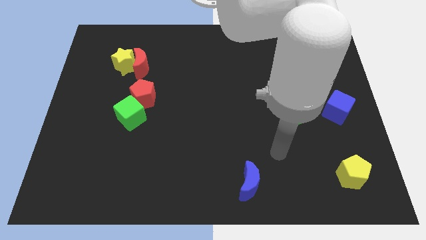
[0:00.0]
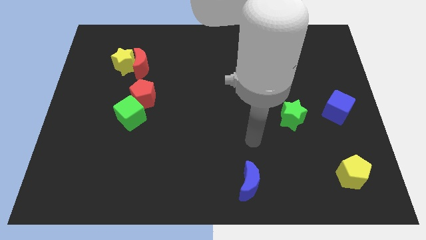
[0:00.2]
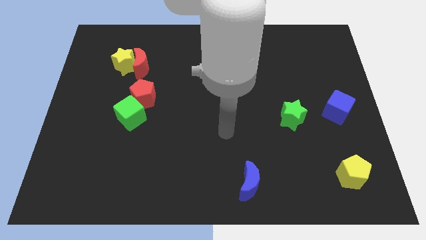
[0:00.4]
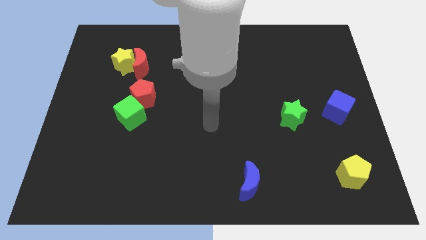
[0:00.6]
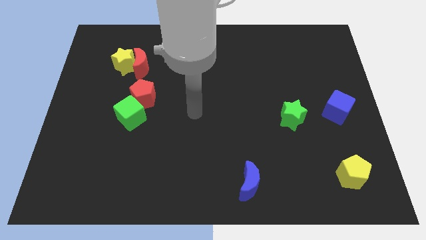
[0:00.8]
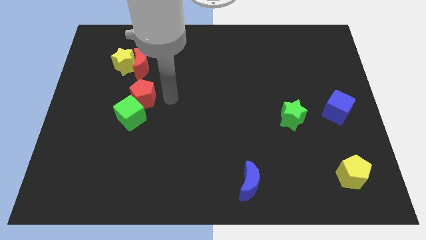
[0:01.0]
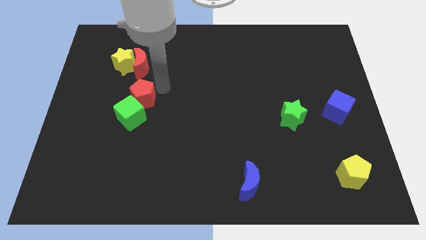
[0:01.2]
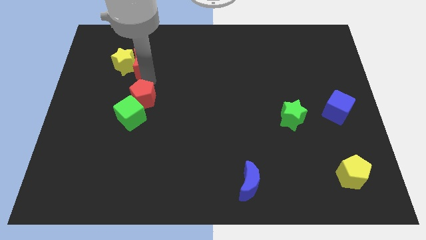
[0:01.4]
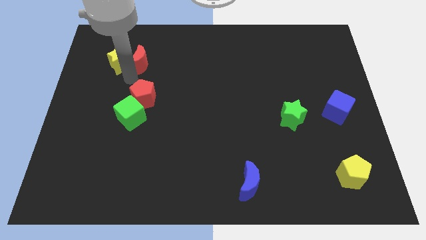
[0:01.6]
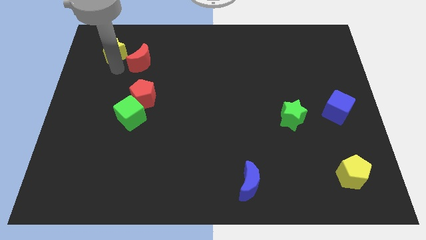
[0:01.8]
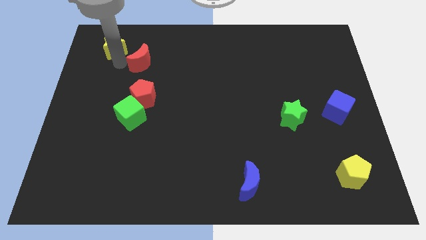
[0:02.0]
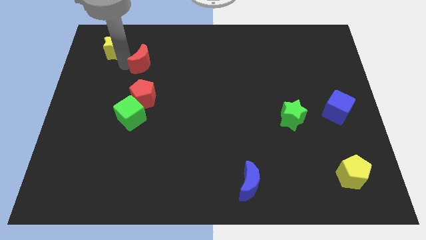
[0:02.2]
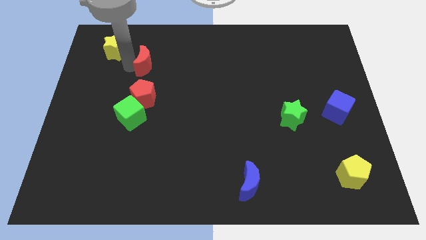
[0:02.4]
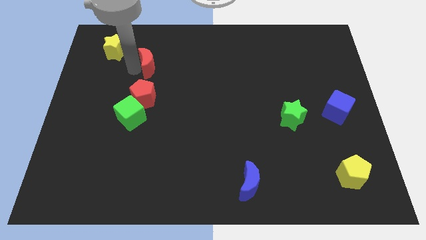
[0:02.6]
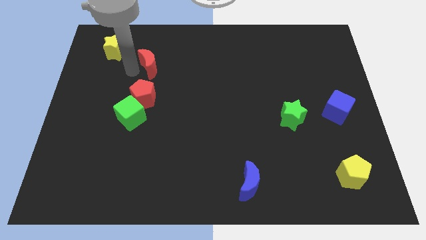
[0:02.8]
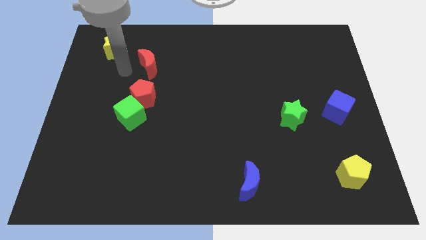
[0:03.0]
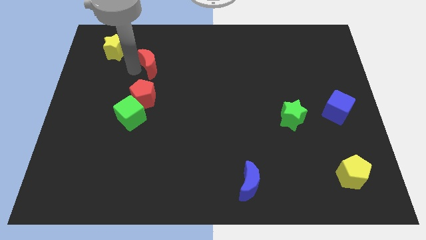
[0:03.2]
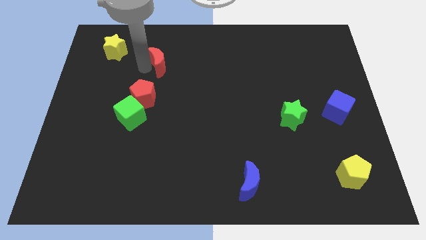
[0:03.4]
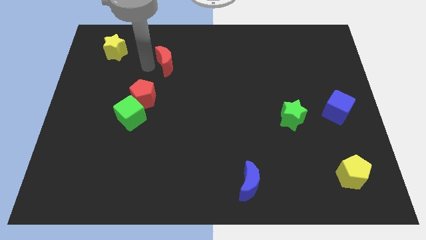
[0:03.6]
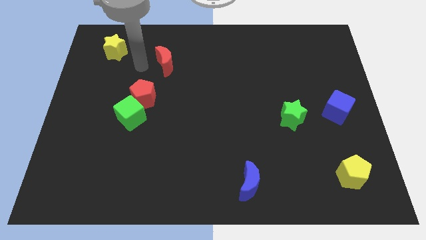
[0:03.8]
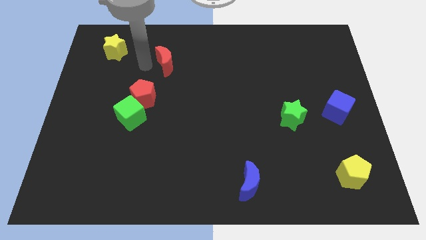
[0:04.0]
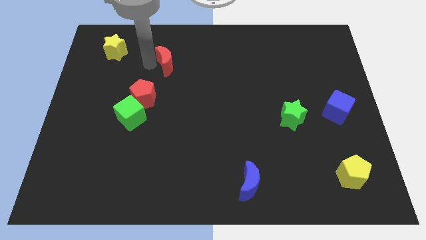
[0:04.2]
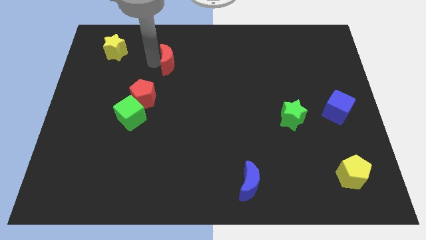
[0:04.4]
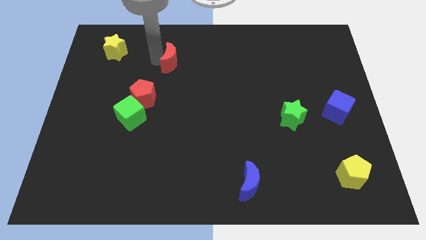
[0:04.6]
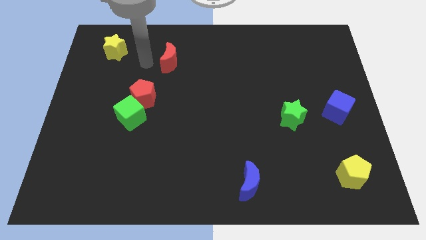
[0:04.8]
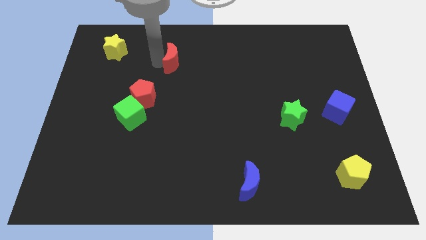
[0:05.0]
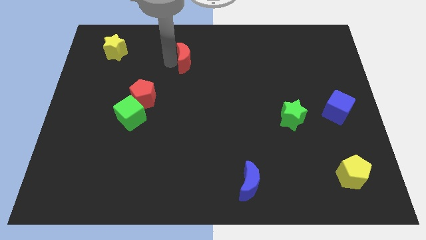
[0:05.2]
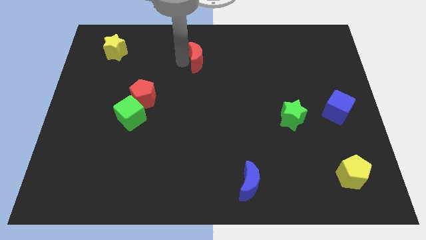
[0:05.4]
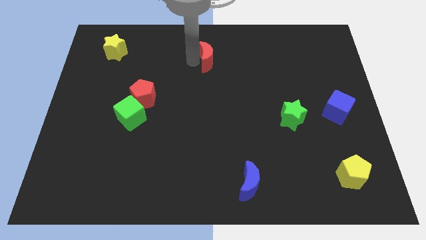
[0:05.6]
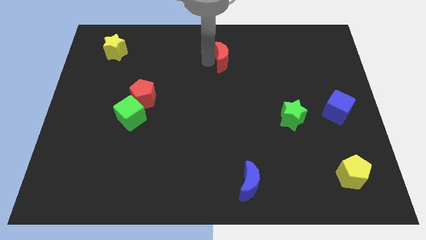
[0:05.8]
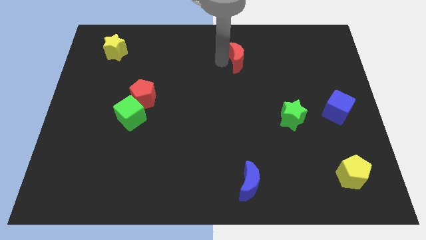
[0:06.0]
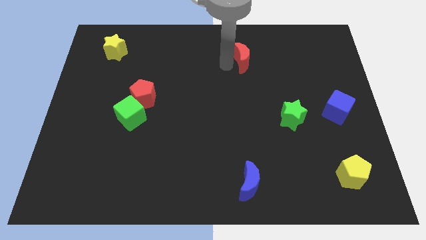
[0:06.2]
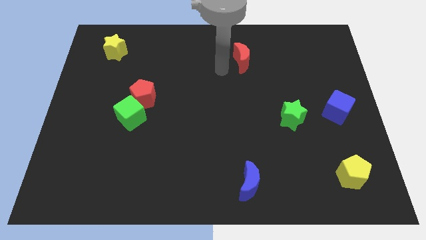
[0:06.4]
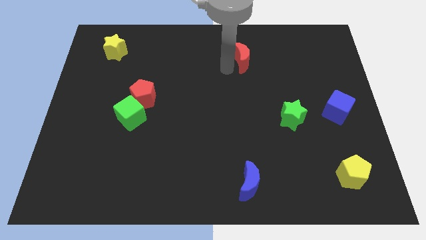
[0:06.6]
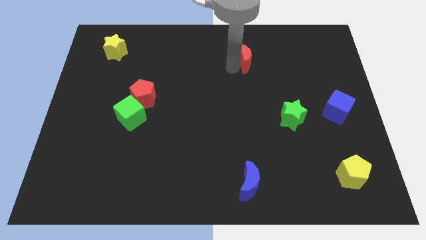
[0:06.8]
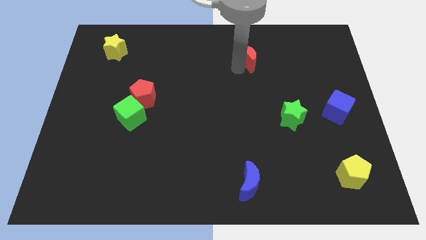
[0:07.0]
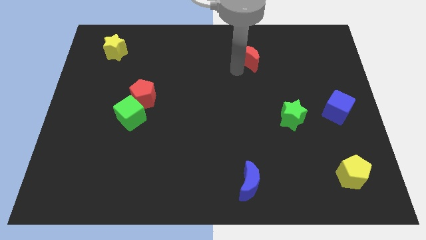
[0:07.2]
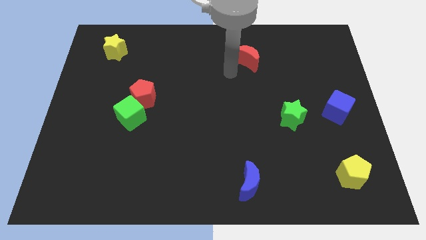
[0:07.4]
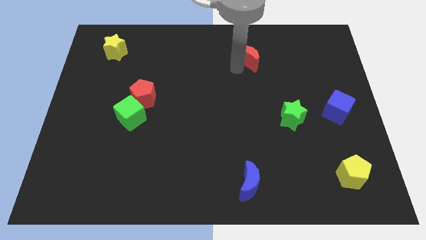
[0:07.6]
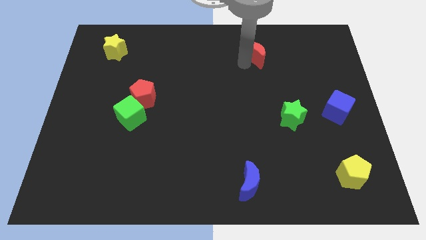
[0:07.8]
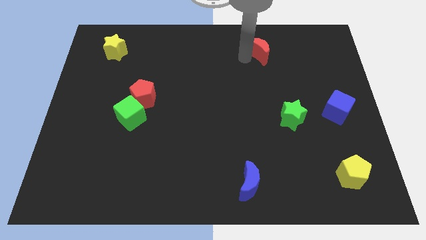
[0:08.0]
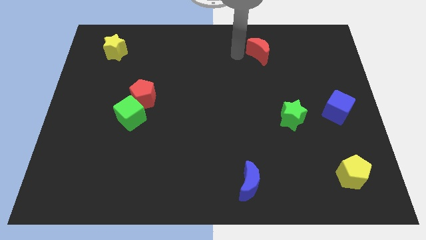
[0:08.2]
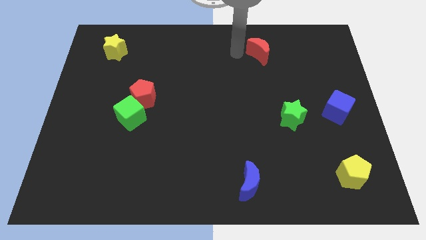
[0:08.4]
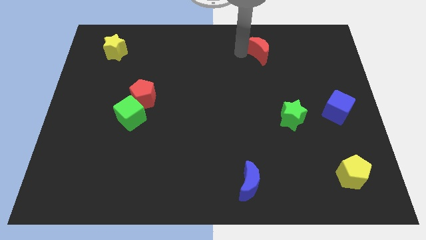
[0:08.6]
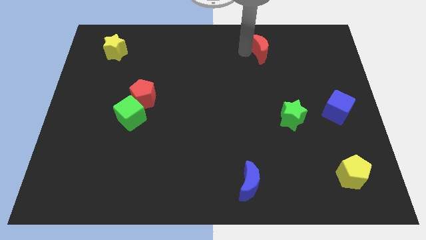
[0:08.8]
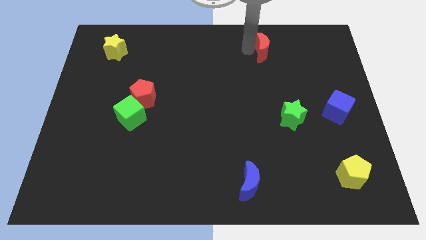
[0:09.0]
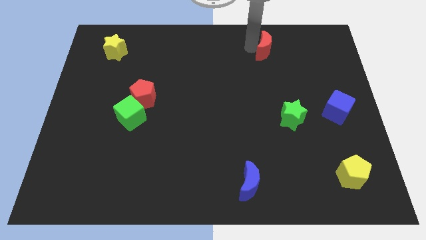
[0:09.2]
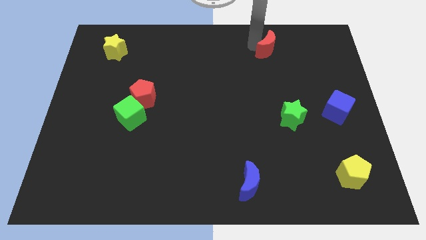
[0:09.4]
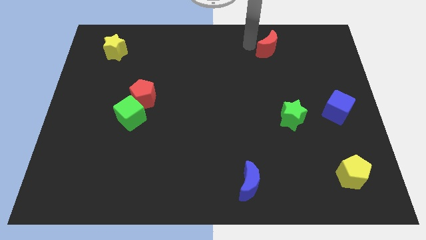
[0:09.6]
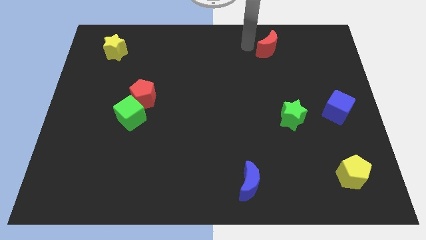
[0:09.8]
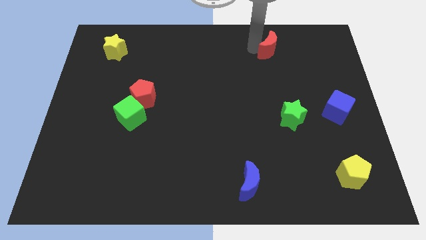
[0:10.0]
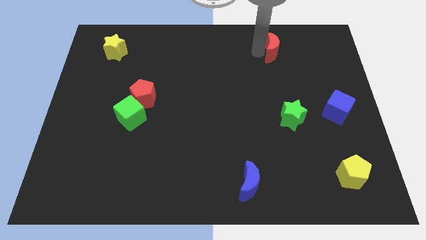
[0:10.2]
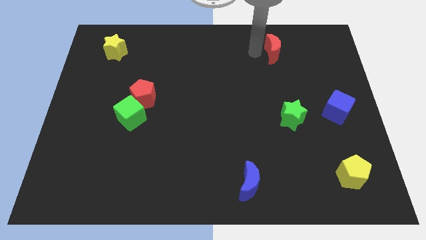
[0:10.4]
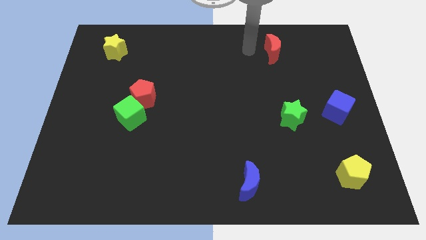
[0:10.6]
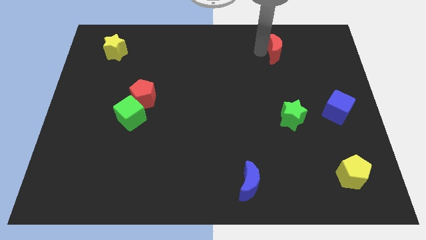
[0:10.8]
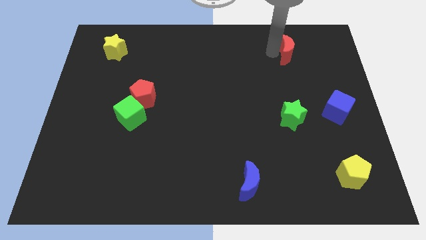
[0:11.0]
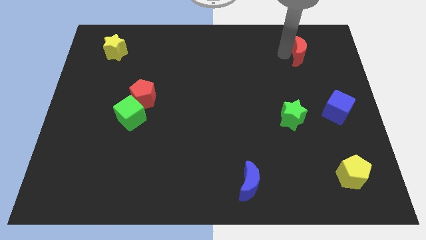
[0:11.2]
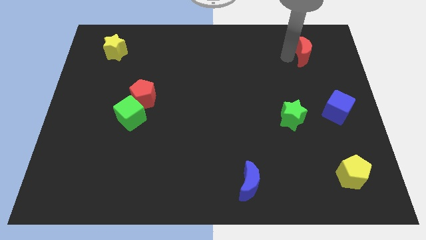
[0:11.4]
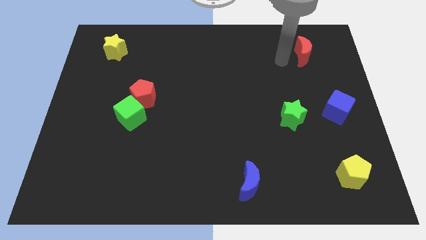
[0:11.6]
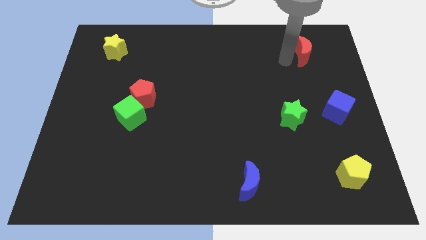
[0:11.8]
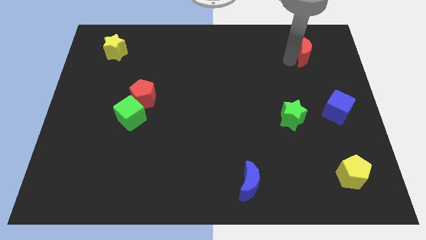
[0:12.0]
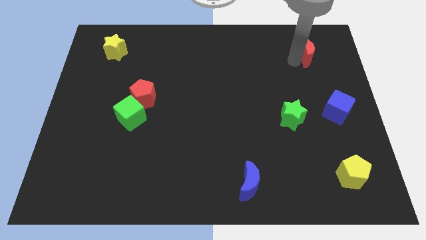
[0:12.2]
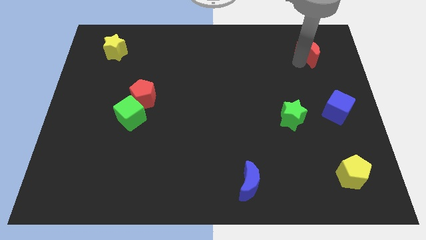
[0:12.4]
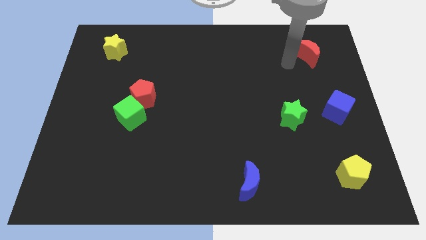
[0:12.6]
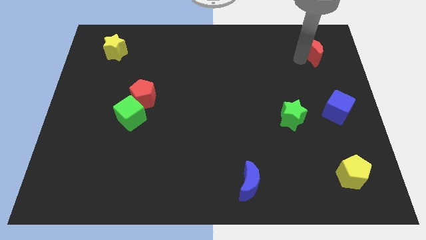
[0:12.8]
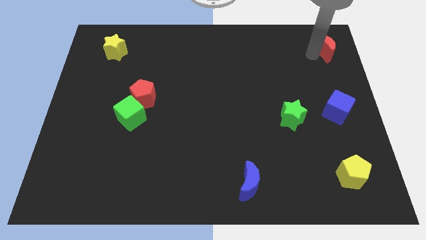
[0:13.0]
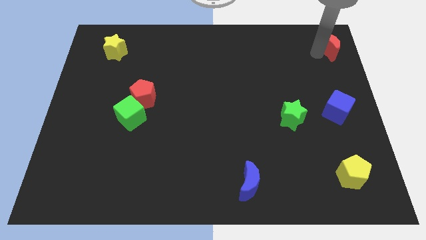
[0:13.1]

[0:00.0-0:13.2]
put the red moon to the top right of the board
